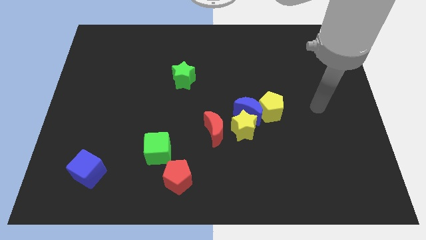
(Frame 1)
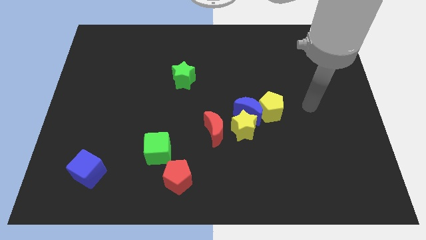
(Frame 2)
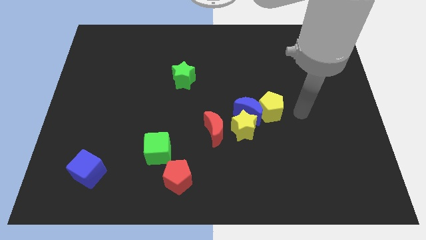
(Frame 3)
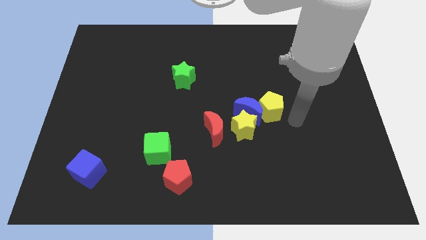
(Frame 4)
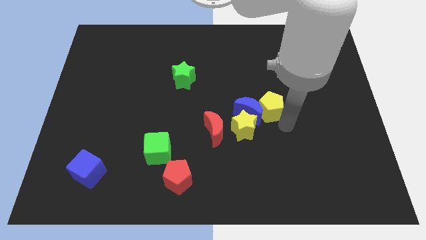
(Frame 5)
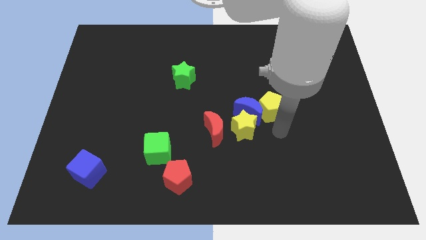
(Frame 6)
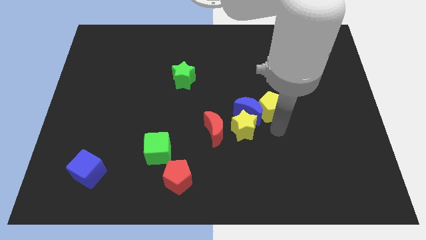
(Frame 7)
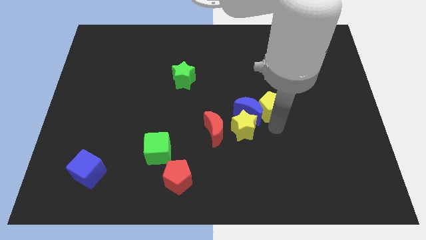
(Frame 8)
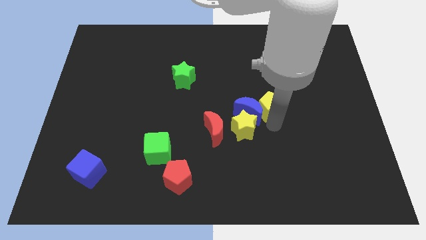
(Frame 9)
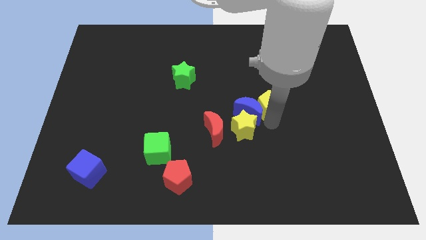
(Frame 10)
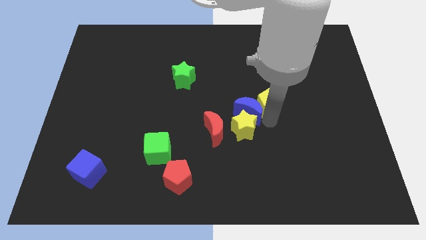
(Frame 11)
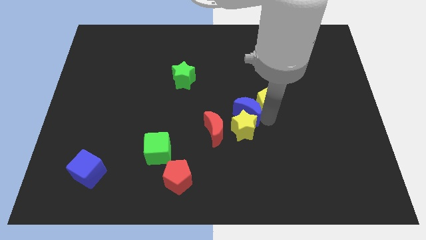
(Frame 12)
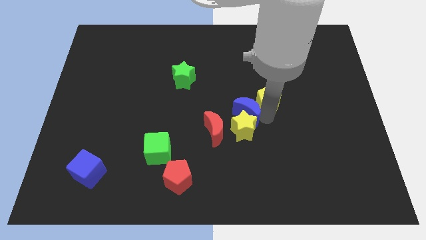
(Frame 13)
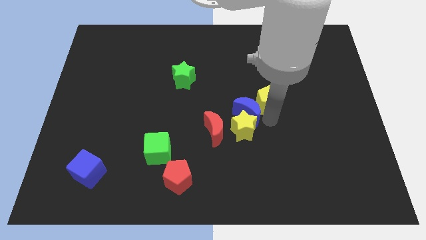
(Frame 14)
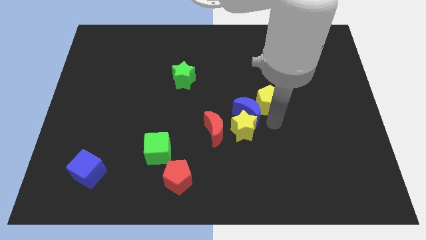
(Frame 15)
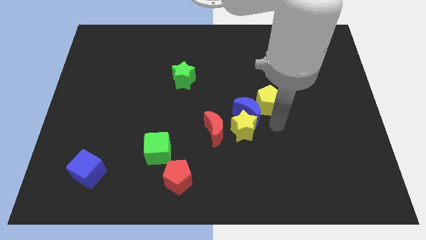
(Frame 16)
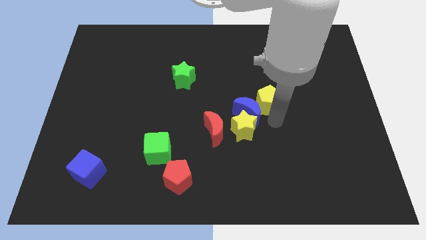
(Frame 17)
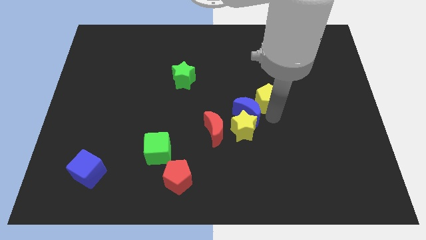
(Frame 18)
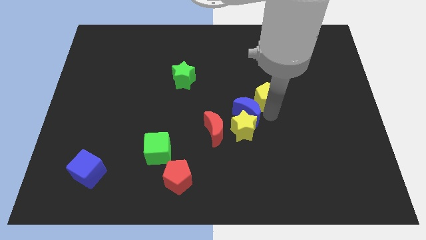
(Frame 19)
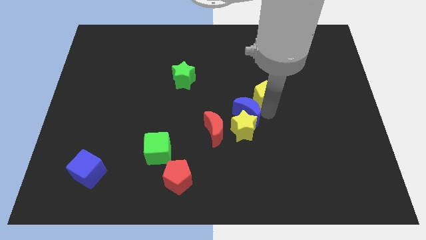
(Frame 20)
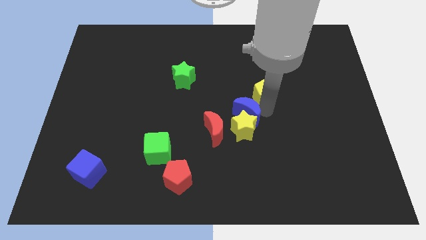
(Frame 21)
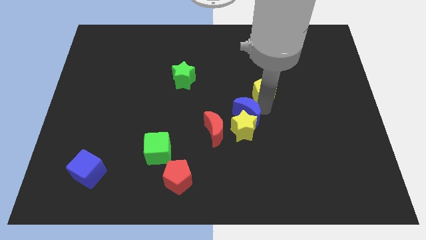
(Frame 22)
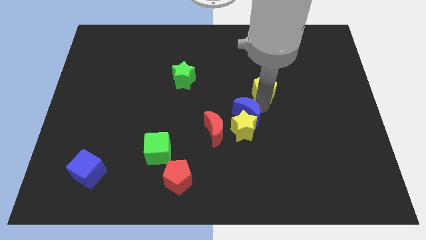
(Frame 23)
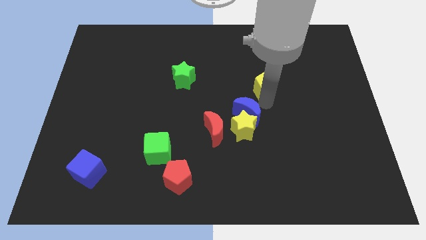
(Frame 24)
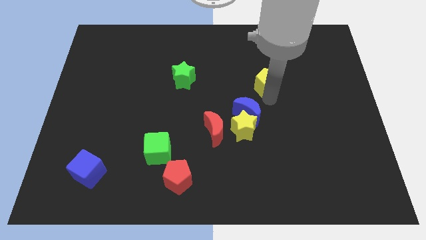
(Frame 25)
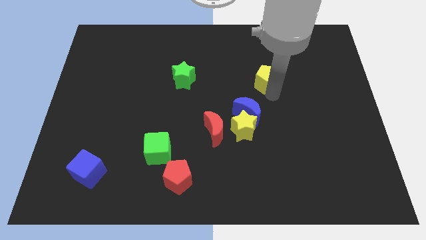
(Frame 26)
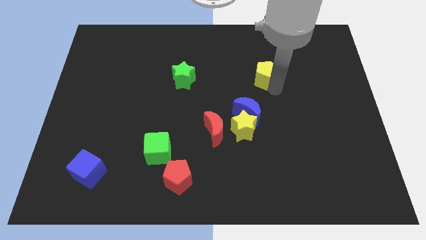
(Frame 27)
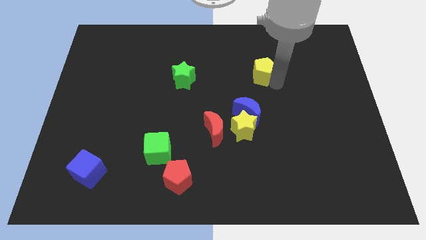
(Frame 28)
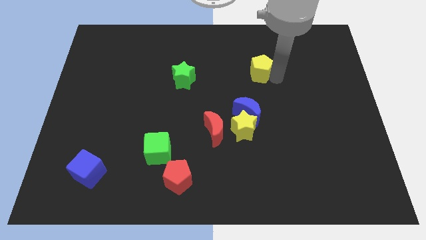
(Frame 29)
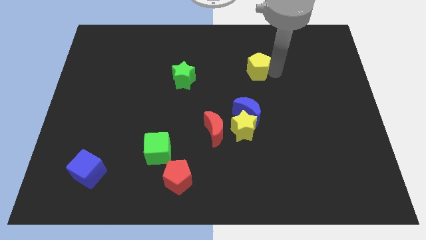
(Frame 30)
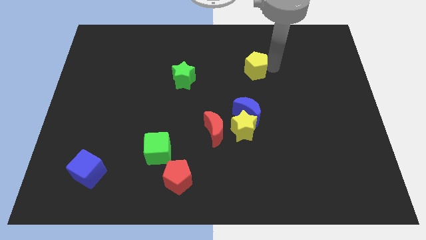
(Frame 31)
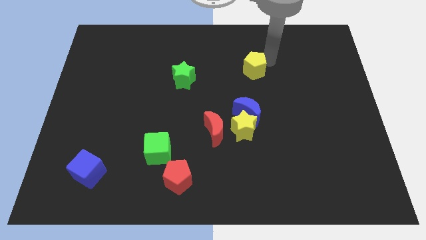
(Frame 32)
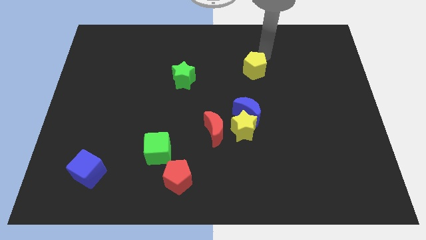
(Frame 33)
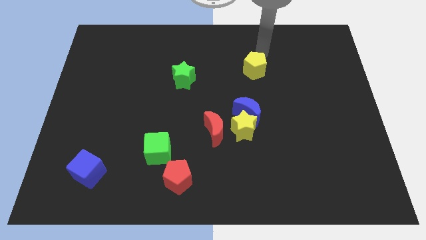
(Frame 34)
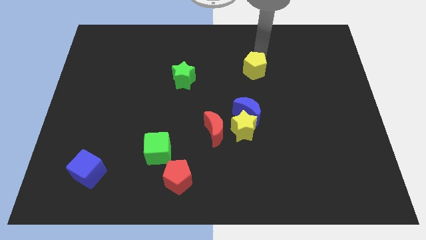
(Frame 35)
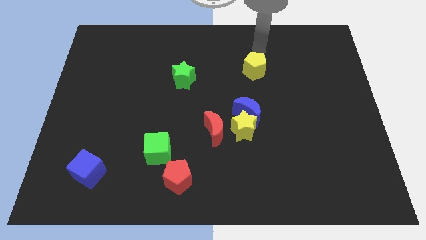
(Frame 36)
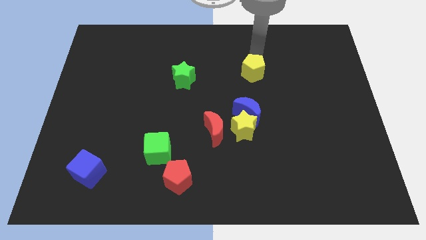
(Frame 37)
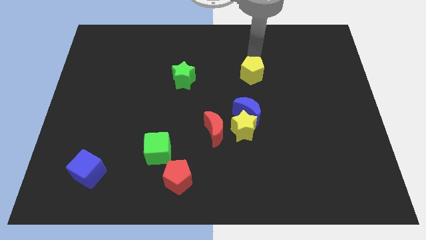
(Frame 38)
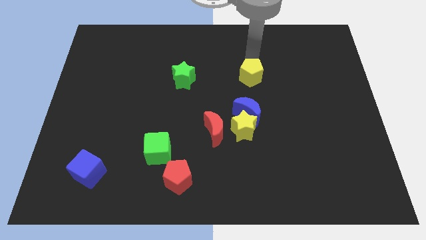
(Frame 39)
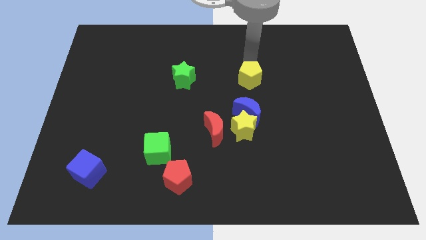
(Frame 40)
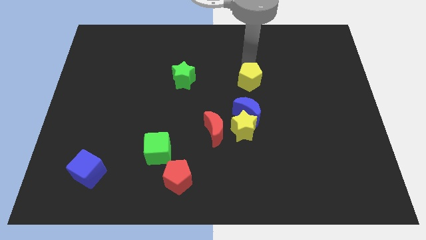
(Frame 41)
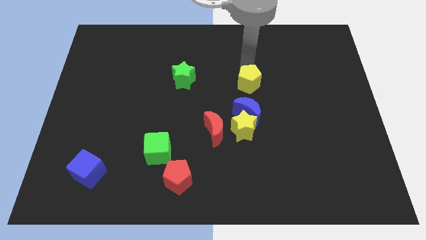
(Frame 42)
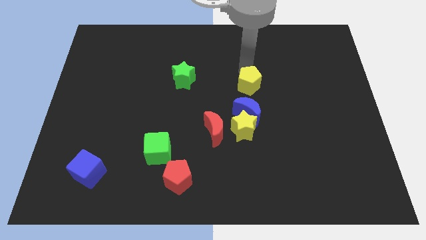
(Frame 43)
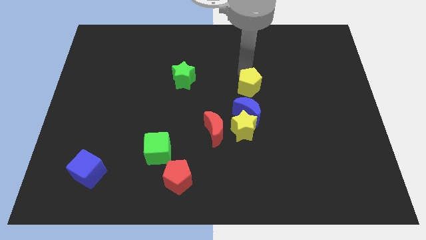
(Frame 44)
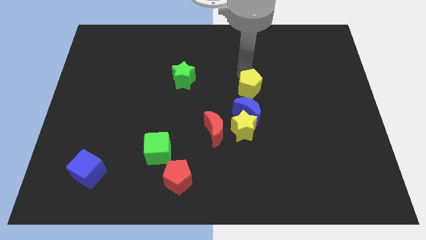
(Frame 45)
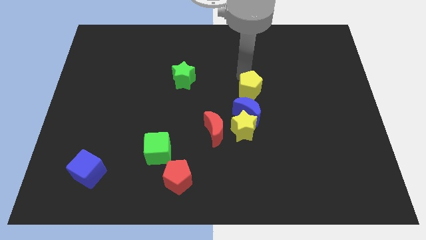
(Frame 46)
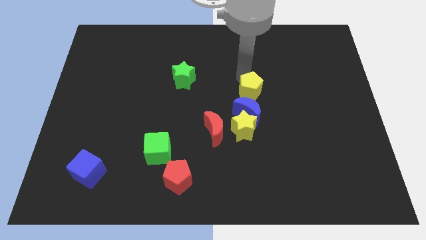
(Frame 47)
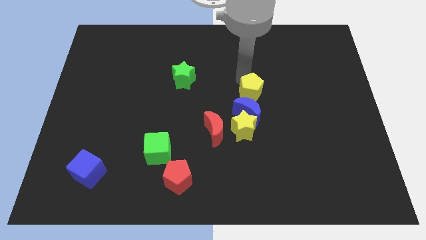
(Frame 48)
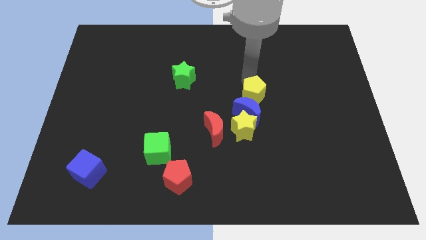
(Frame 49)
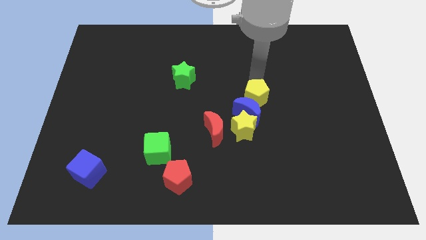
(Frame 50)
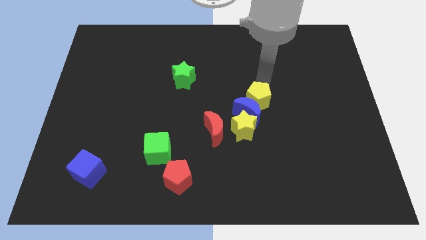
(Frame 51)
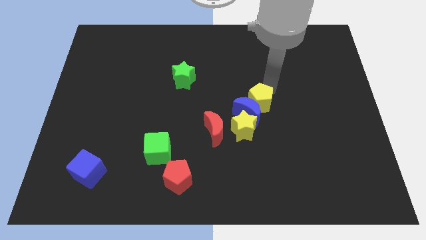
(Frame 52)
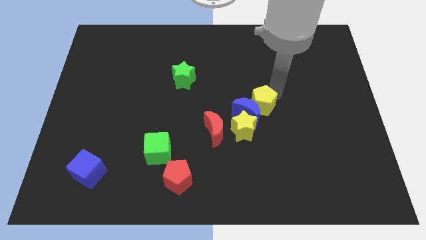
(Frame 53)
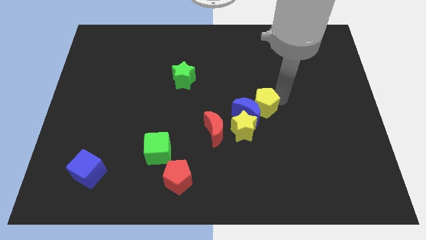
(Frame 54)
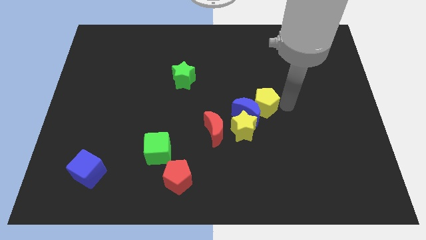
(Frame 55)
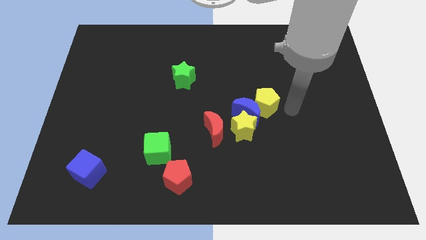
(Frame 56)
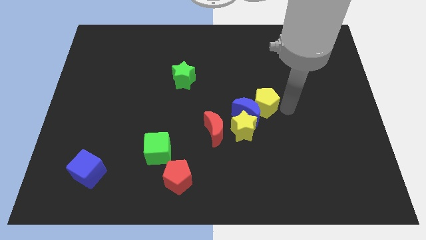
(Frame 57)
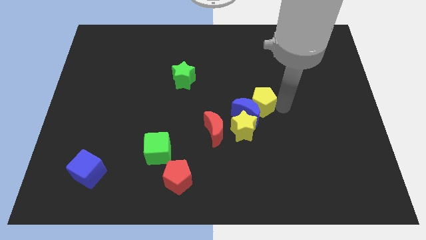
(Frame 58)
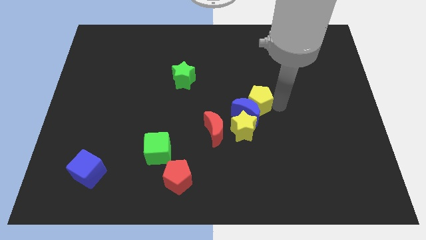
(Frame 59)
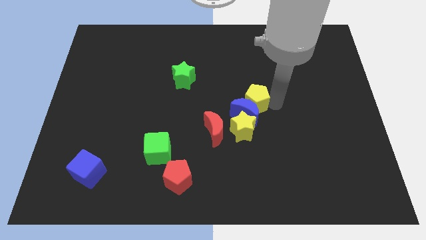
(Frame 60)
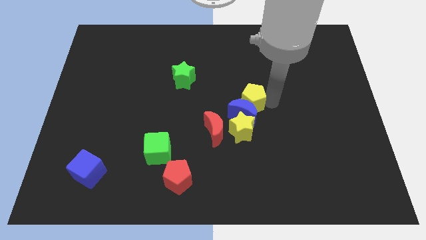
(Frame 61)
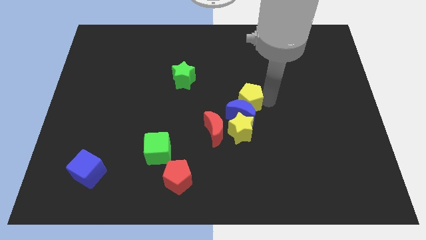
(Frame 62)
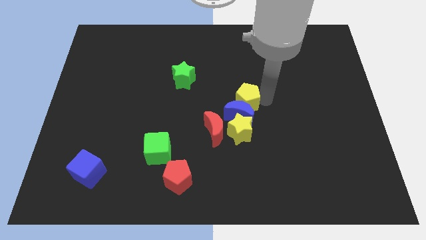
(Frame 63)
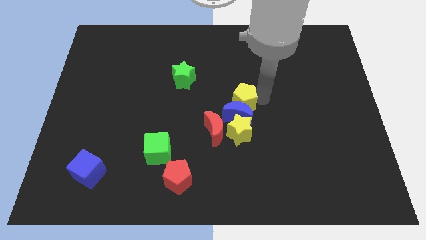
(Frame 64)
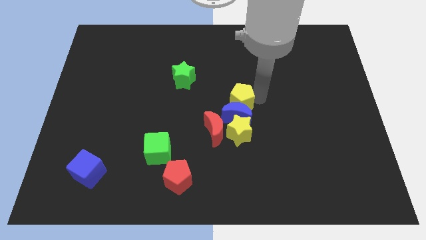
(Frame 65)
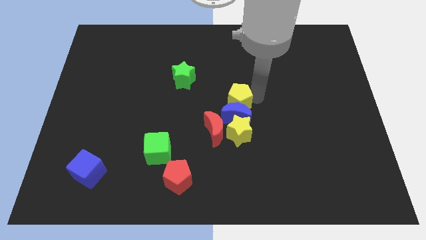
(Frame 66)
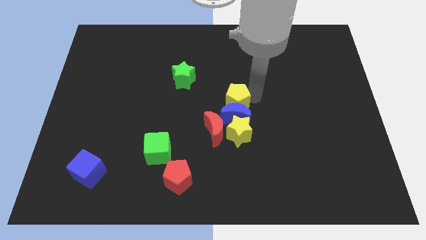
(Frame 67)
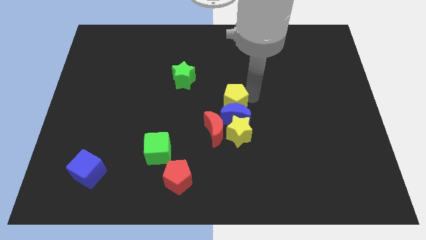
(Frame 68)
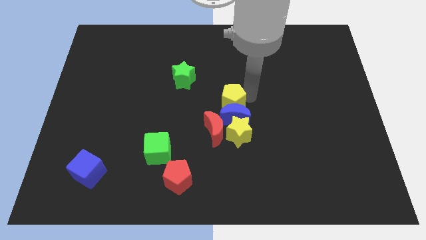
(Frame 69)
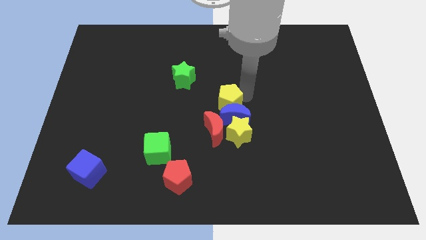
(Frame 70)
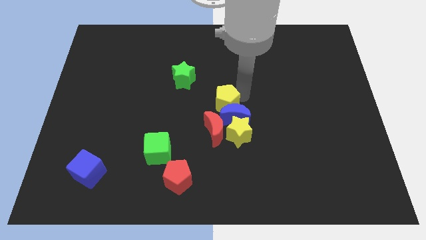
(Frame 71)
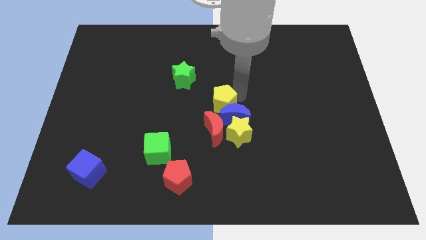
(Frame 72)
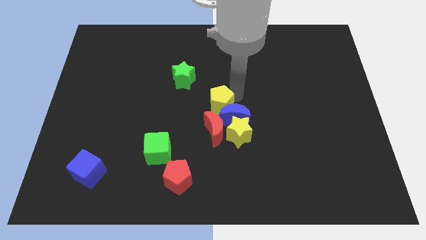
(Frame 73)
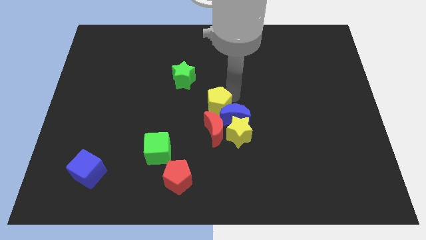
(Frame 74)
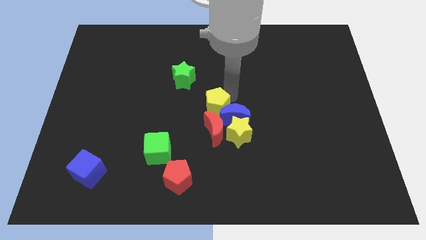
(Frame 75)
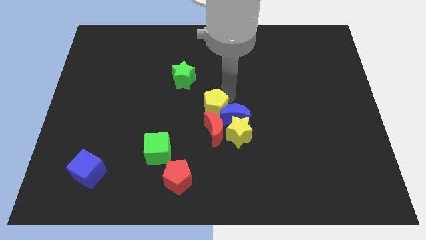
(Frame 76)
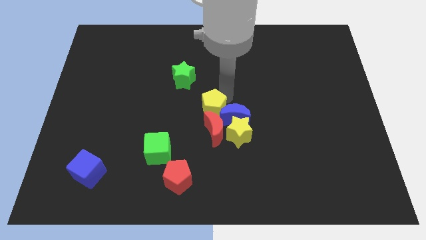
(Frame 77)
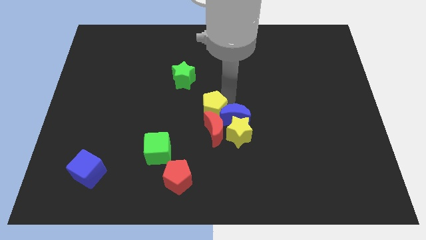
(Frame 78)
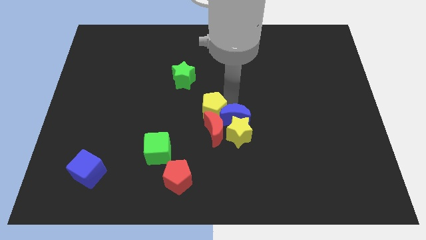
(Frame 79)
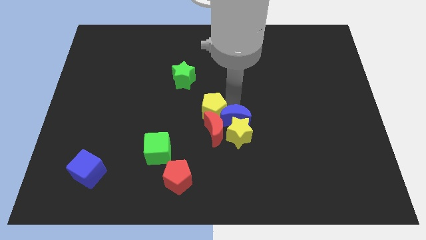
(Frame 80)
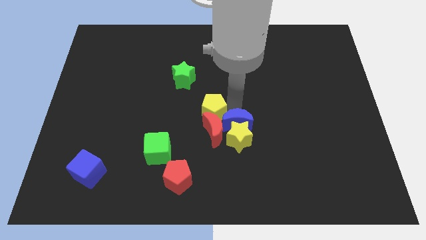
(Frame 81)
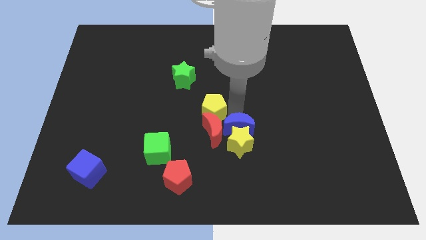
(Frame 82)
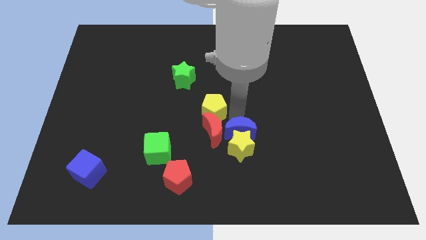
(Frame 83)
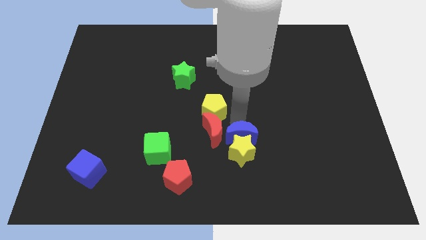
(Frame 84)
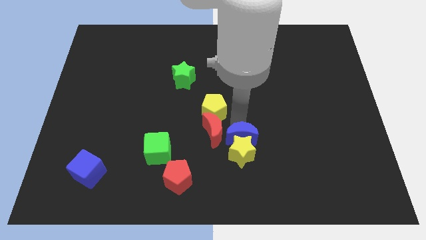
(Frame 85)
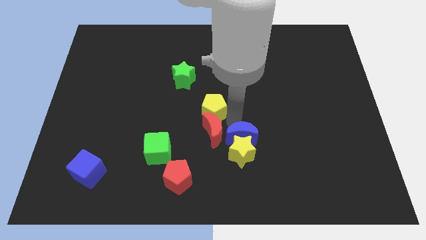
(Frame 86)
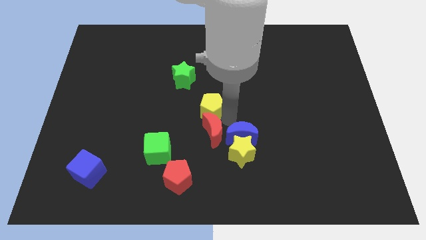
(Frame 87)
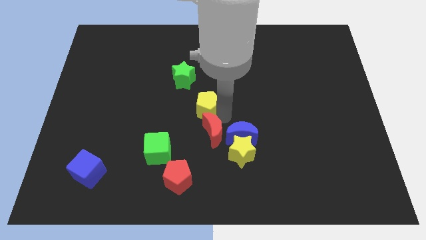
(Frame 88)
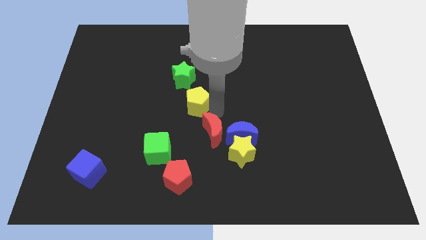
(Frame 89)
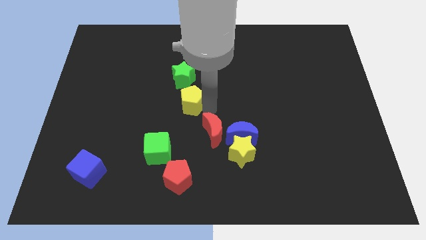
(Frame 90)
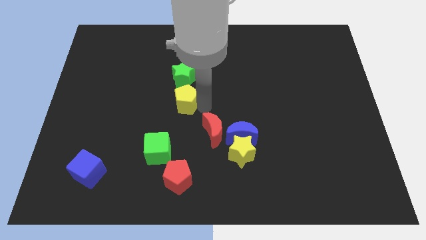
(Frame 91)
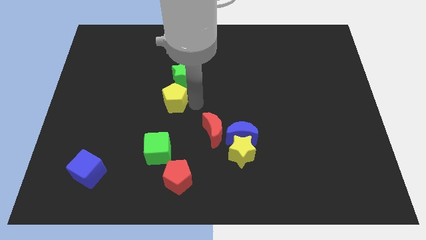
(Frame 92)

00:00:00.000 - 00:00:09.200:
slide the yellow pentagon to the left
